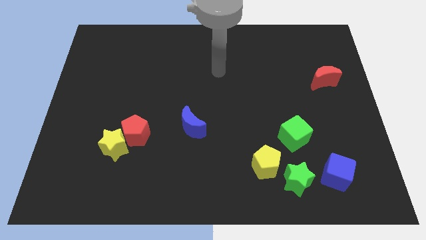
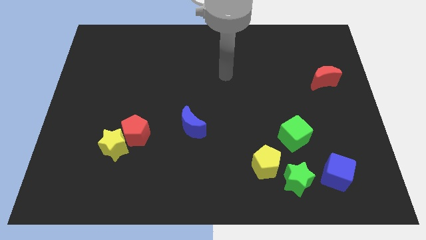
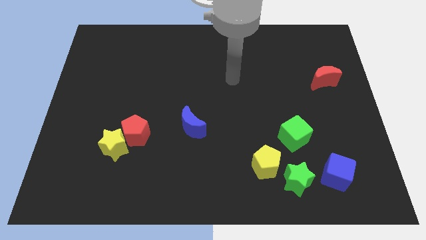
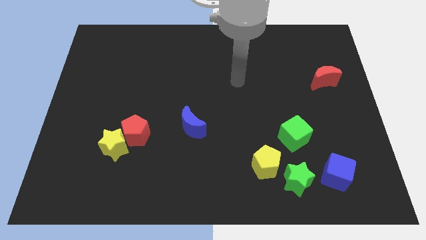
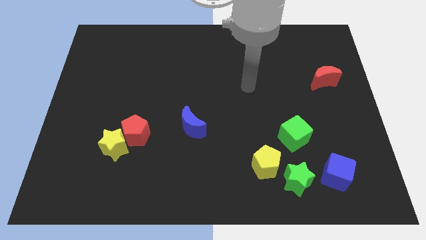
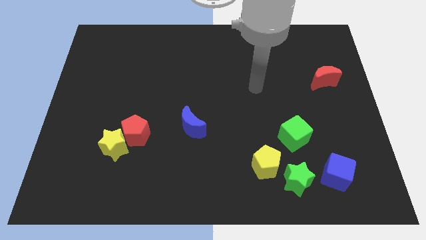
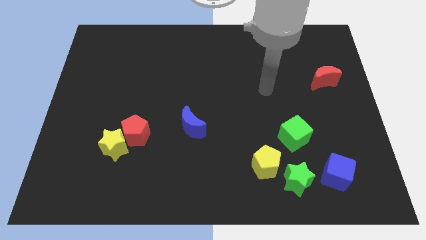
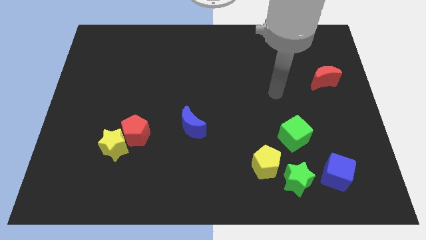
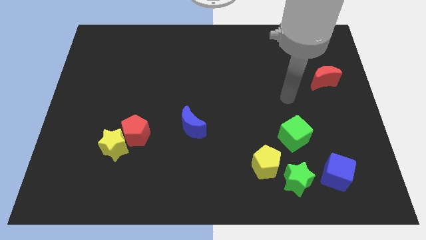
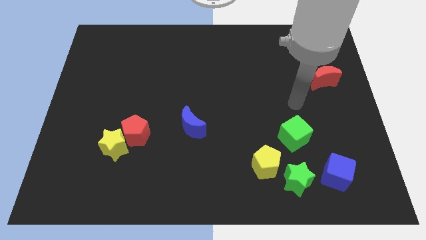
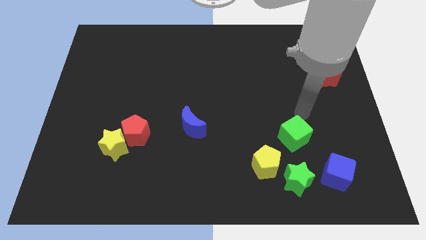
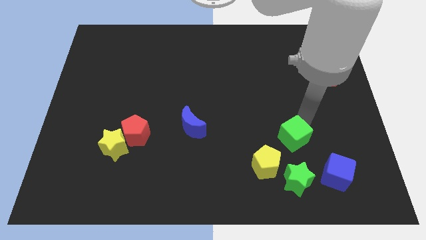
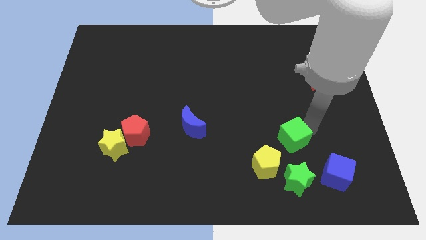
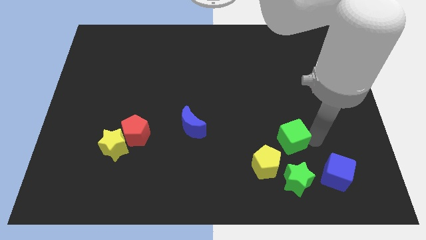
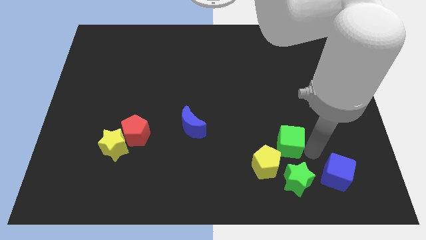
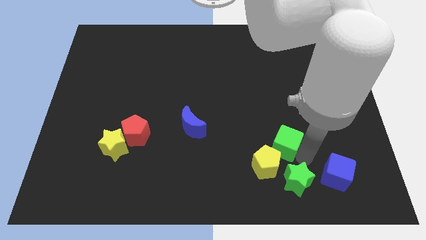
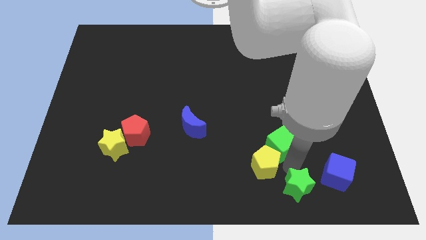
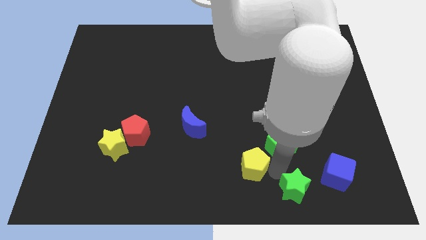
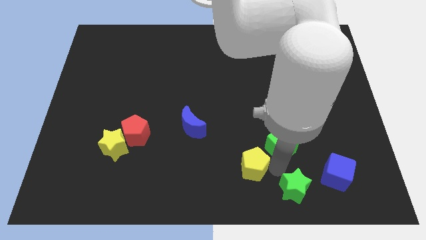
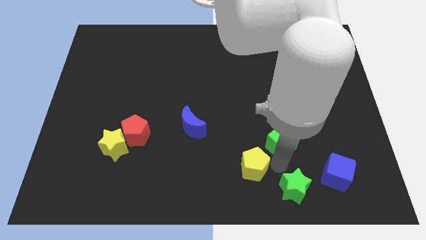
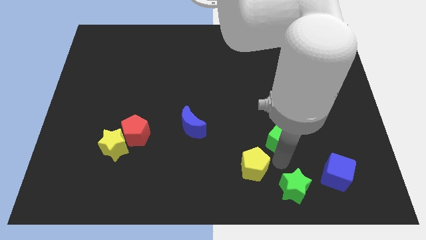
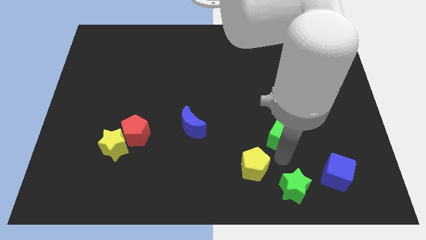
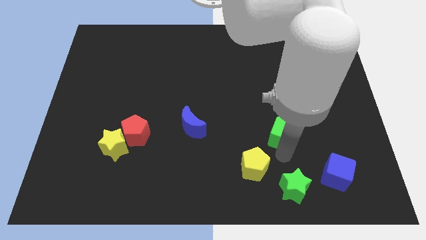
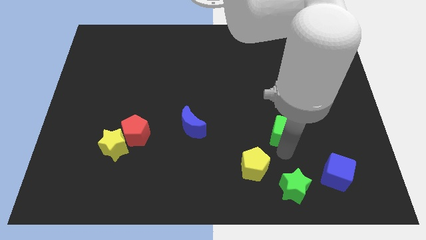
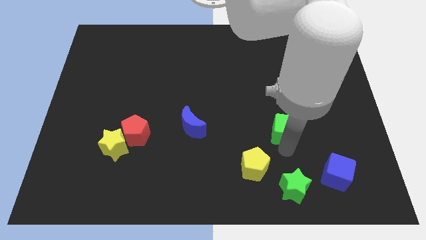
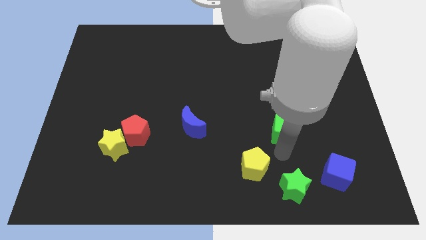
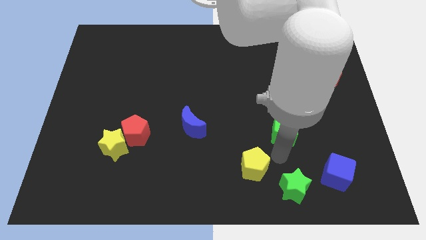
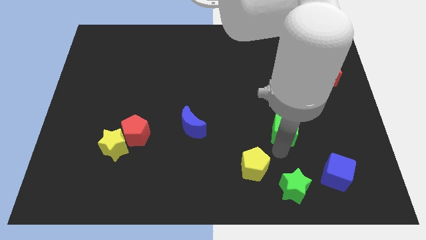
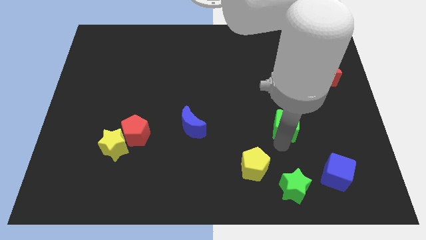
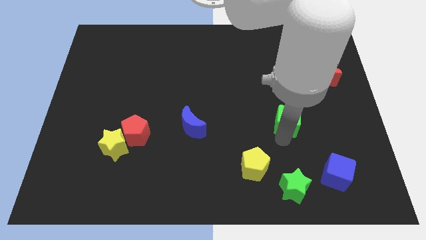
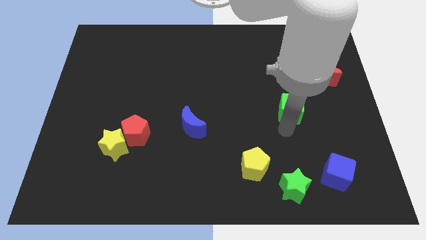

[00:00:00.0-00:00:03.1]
push the green cube somewhat up

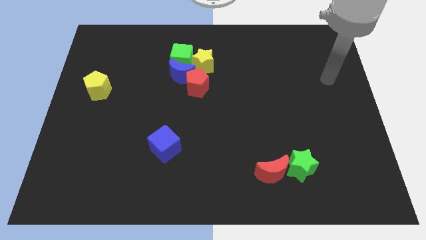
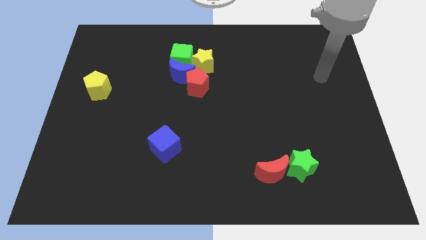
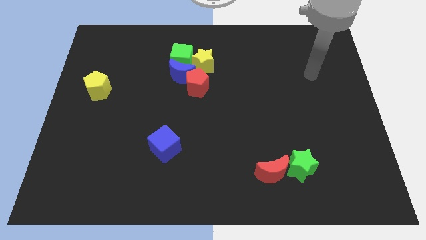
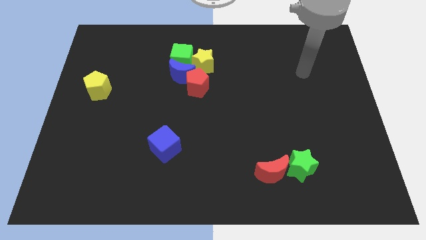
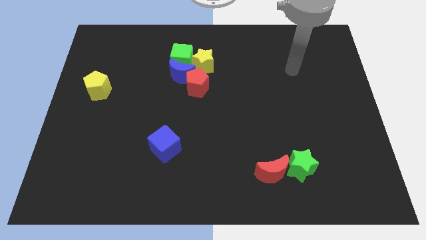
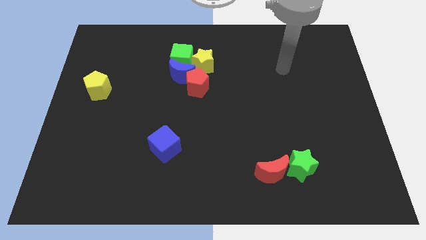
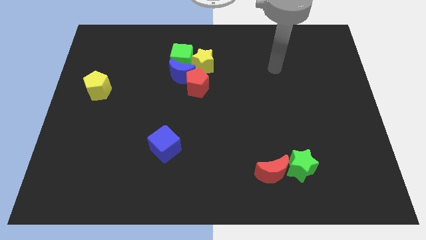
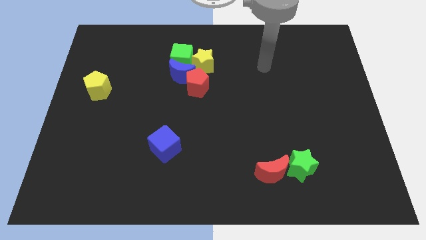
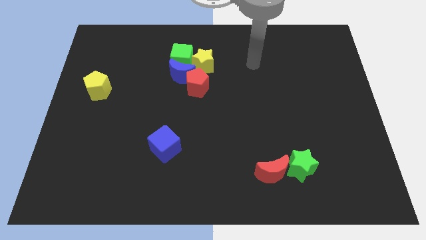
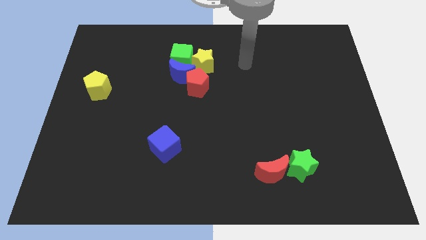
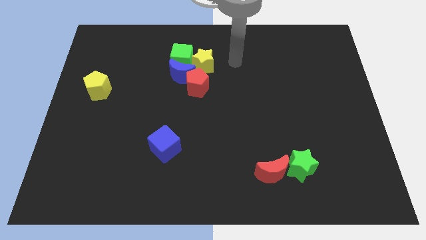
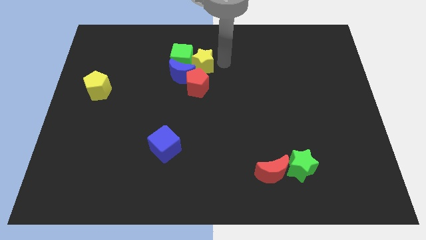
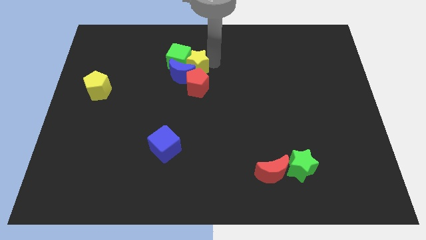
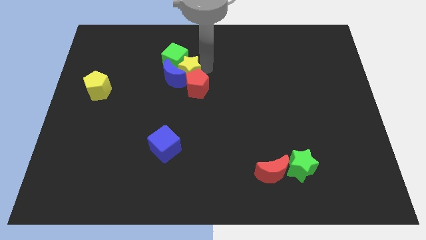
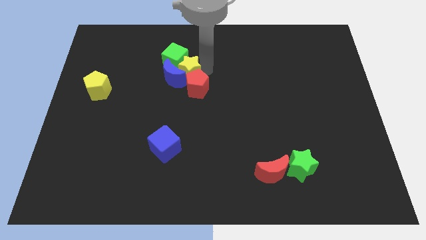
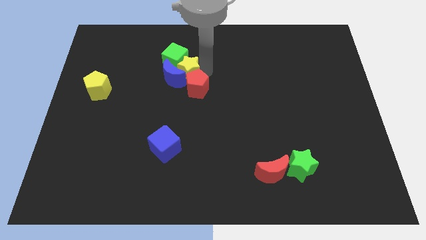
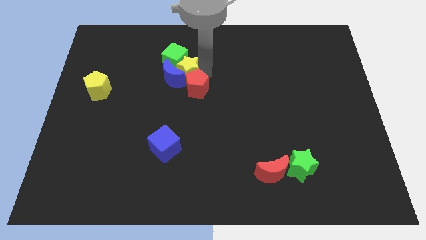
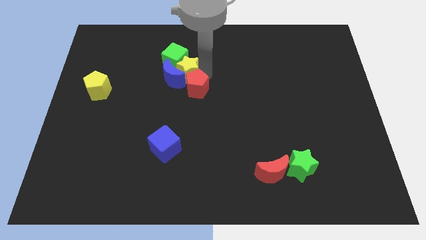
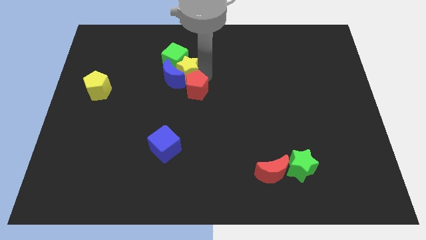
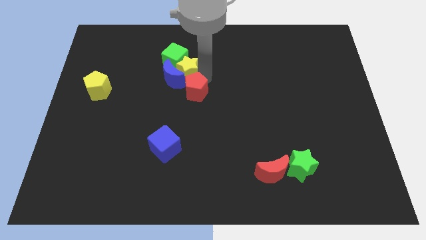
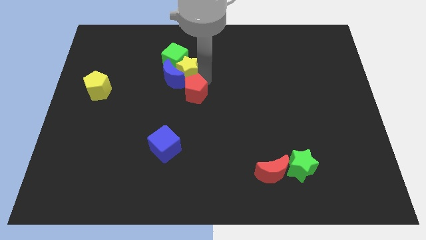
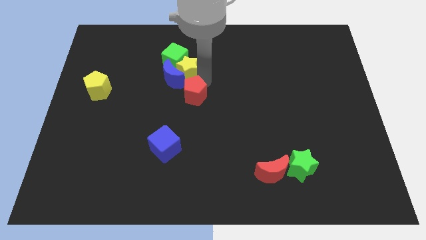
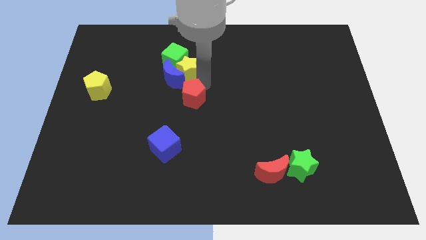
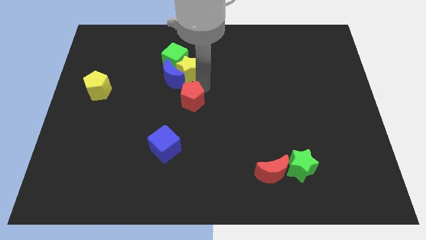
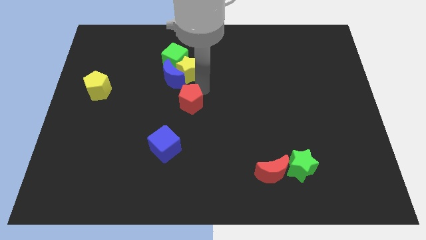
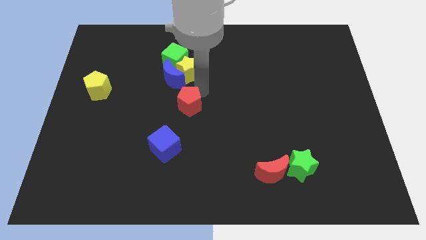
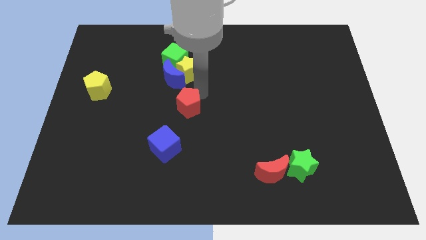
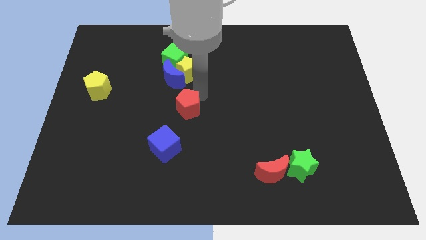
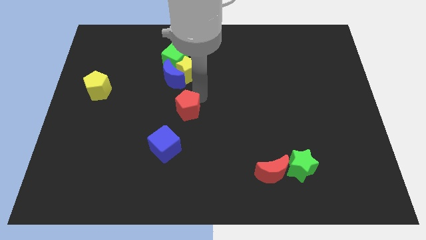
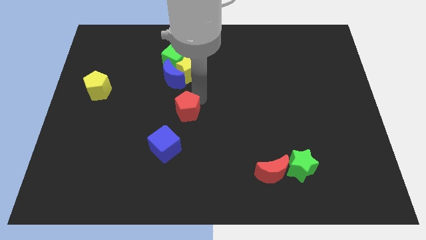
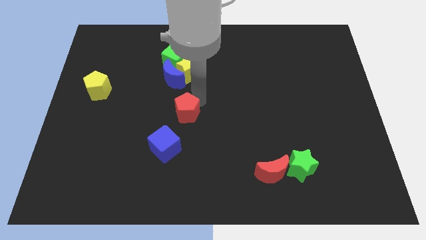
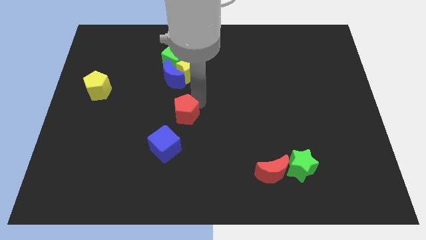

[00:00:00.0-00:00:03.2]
push the red pentagon somewhat downwards and to the left

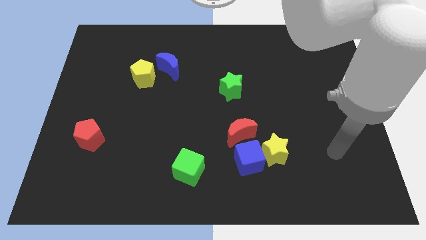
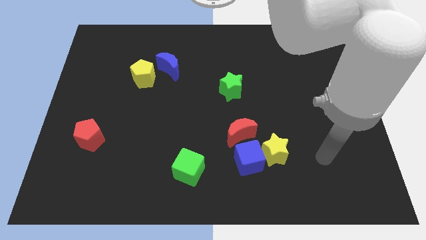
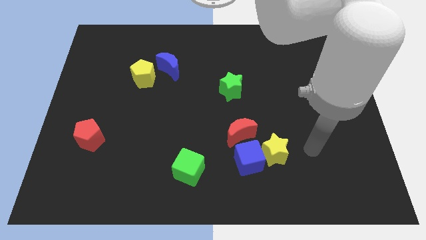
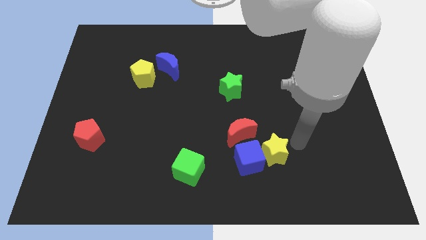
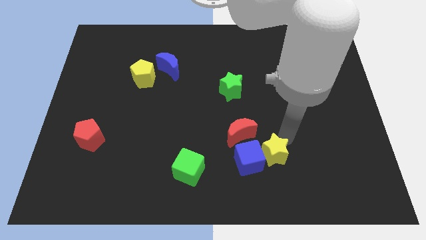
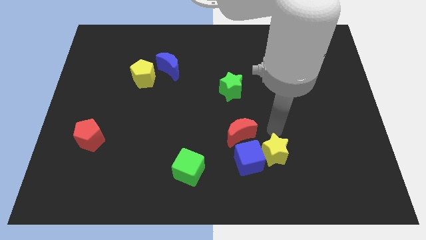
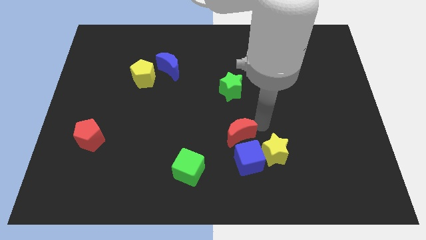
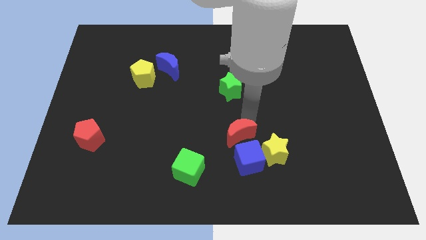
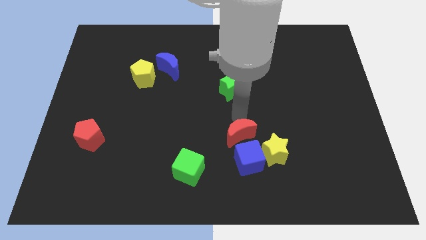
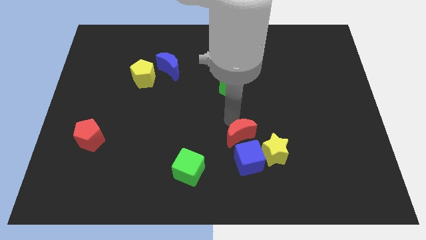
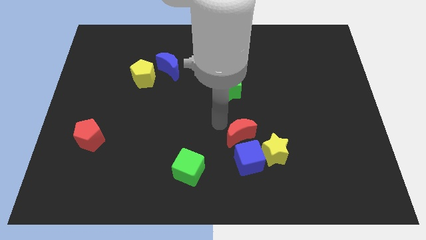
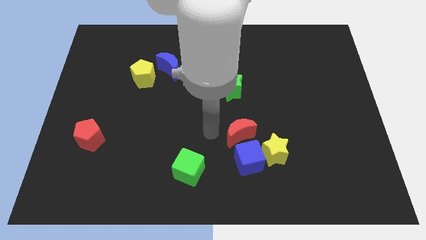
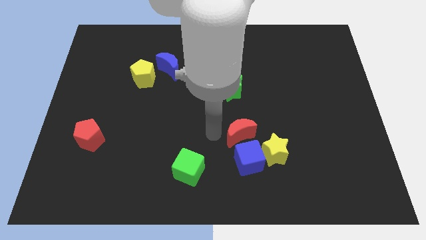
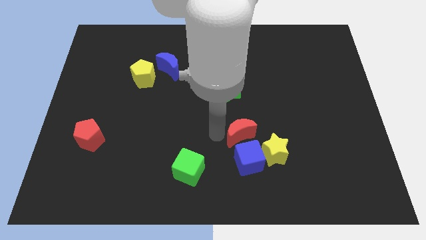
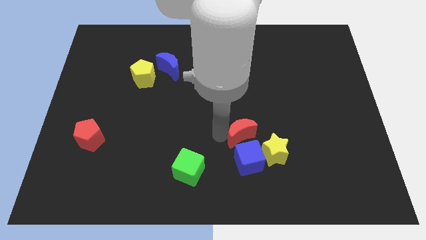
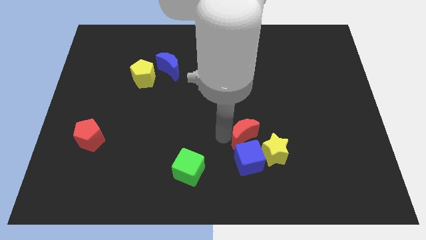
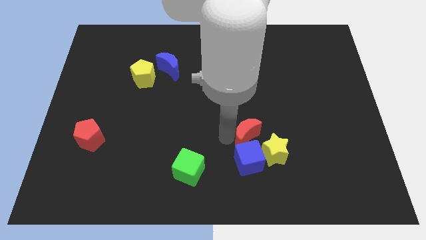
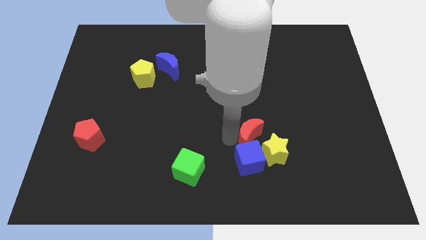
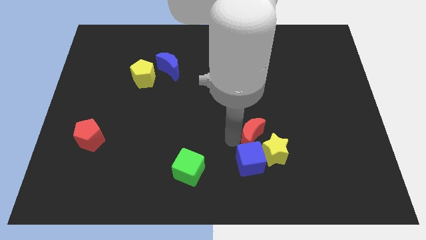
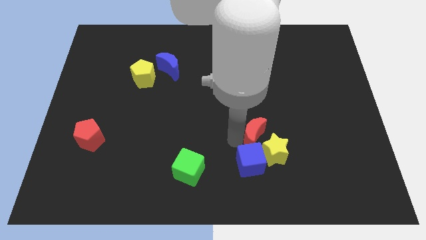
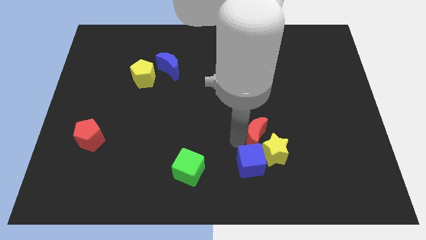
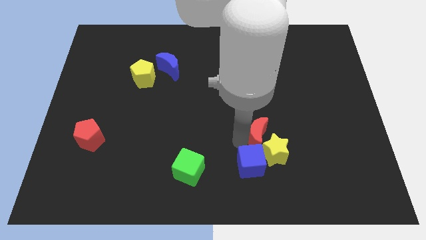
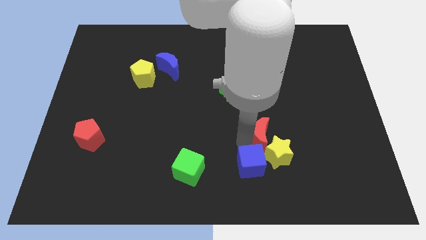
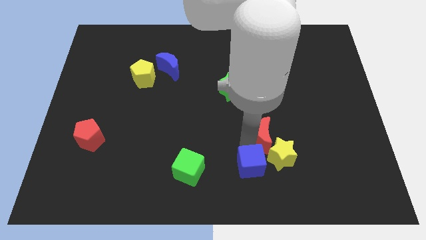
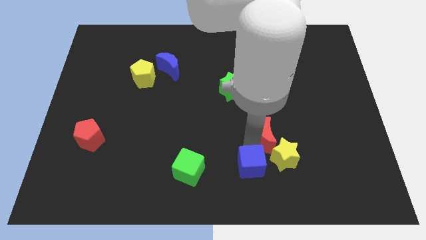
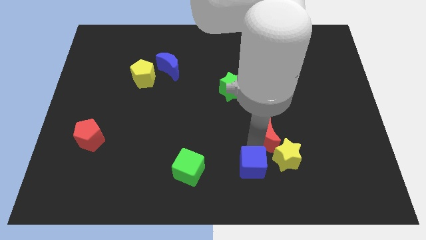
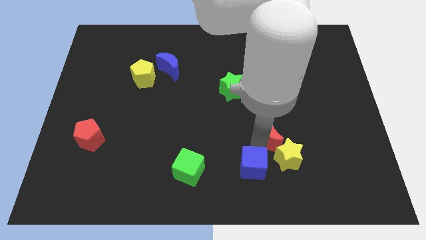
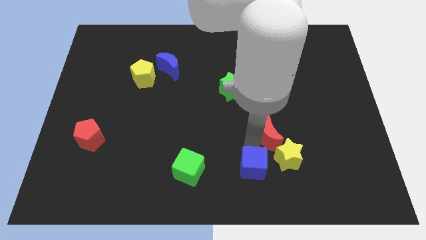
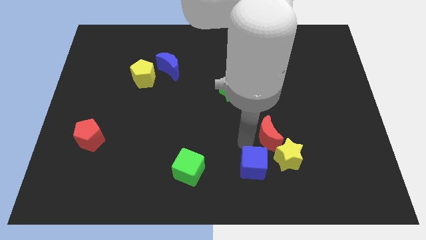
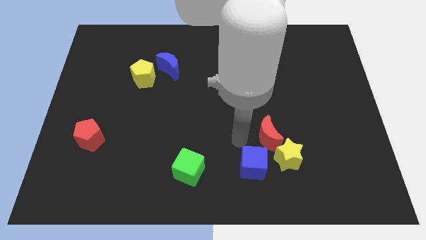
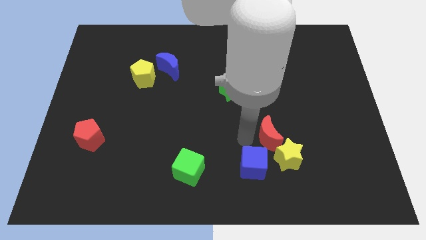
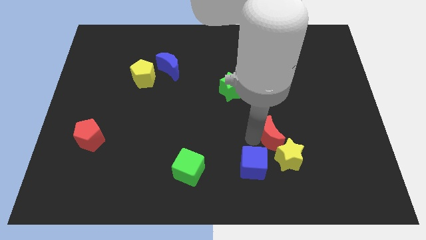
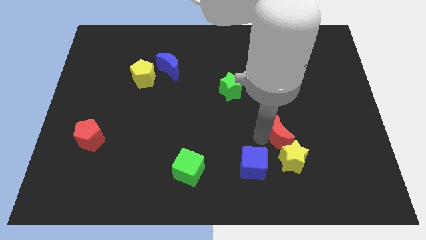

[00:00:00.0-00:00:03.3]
move the red moon to the right somewhat
